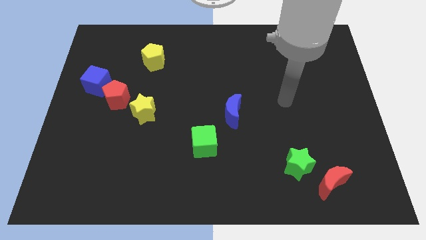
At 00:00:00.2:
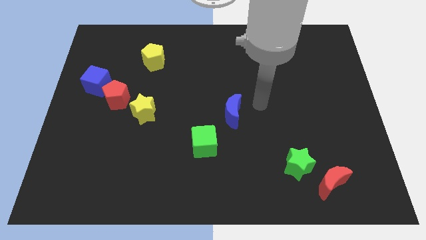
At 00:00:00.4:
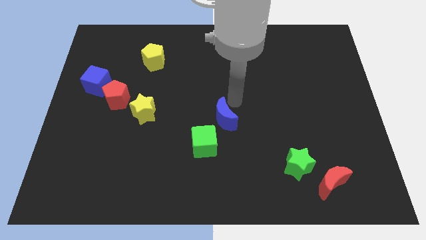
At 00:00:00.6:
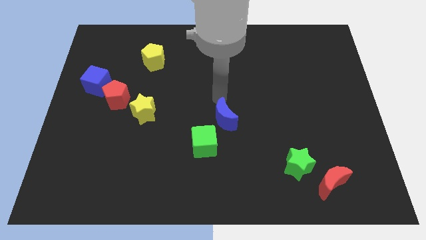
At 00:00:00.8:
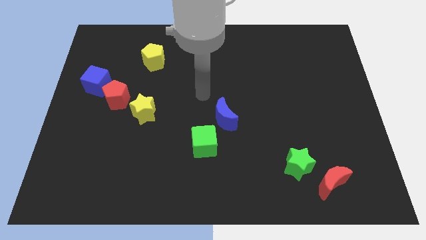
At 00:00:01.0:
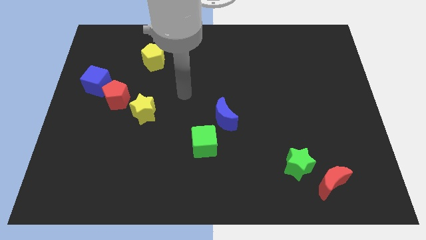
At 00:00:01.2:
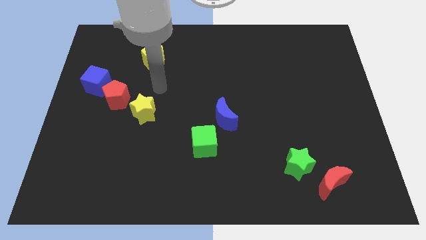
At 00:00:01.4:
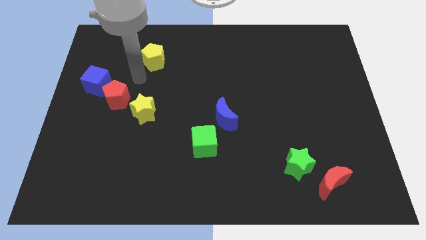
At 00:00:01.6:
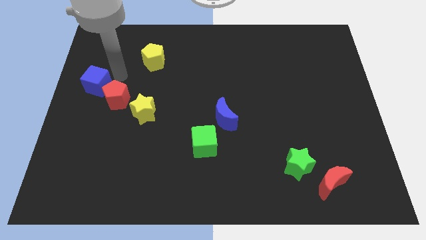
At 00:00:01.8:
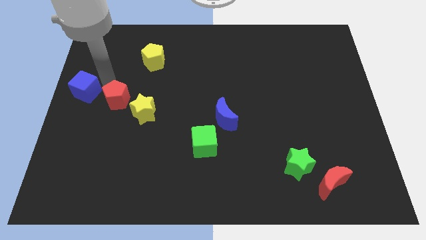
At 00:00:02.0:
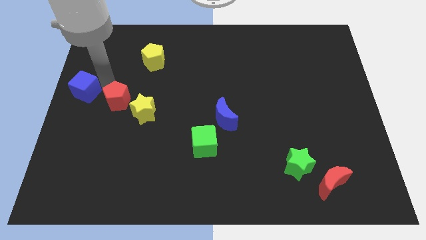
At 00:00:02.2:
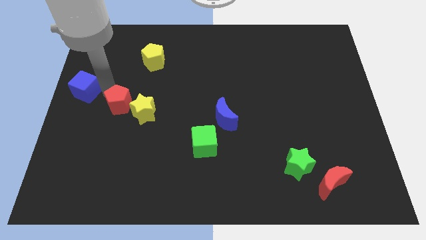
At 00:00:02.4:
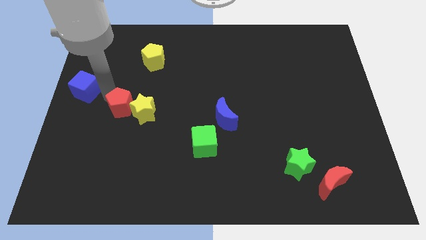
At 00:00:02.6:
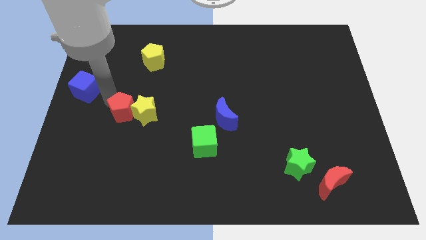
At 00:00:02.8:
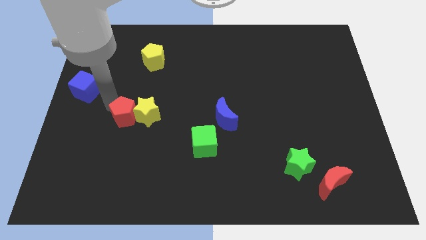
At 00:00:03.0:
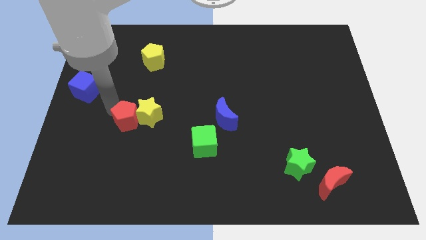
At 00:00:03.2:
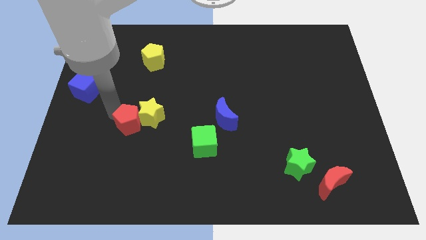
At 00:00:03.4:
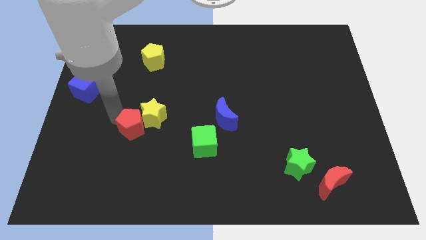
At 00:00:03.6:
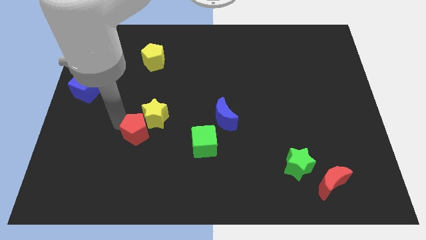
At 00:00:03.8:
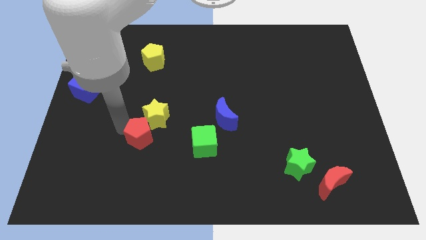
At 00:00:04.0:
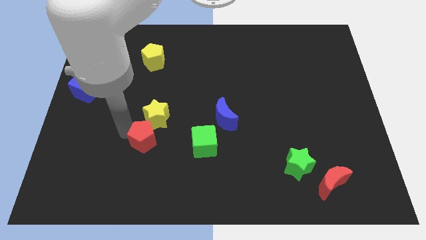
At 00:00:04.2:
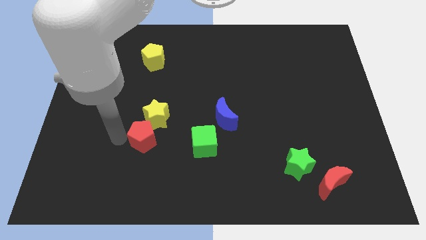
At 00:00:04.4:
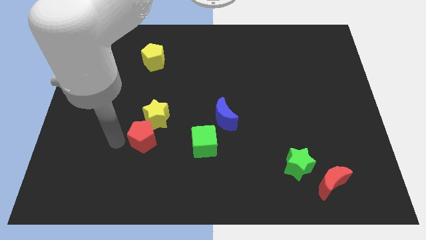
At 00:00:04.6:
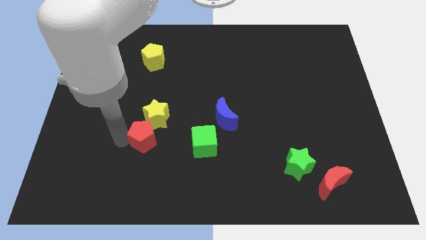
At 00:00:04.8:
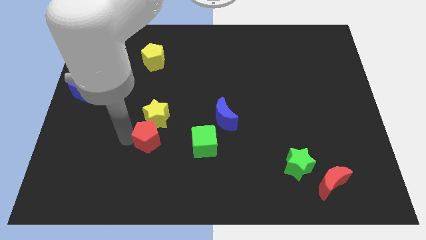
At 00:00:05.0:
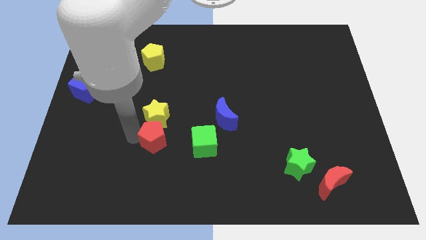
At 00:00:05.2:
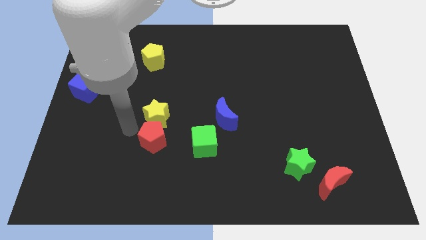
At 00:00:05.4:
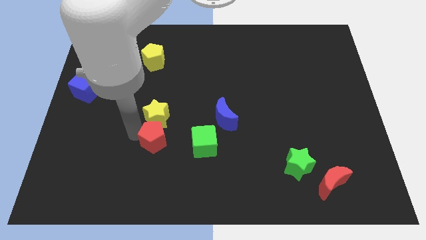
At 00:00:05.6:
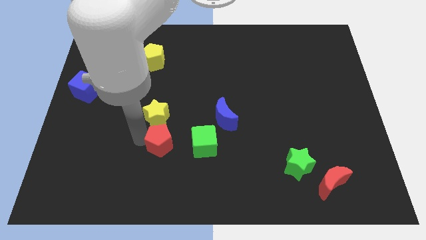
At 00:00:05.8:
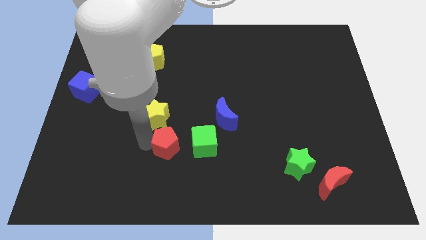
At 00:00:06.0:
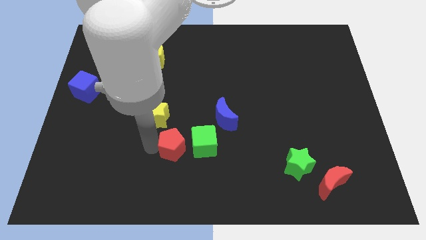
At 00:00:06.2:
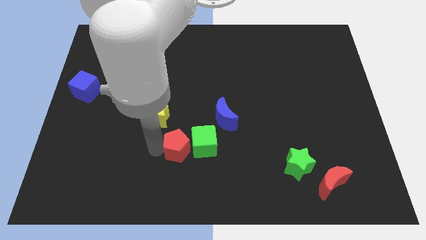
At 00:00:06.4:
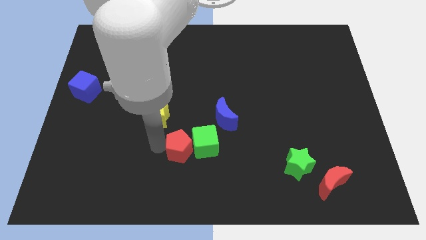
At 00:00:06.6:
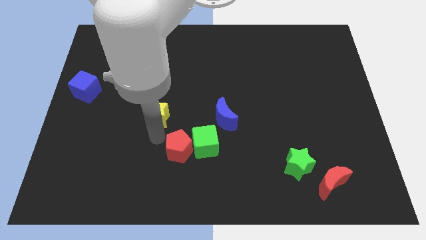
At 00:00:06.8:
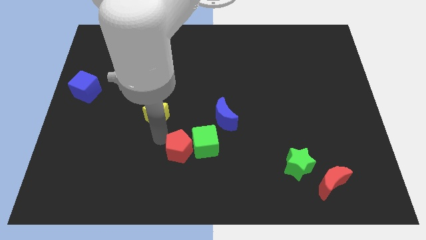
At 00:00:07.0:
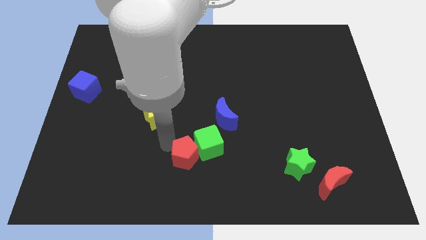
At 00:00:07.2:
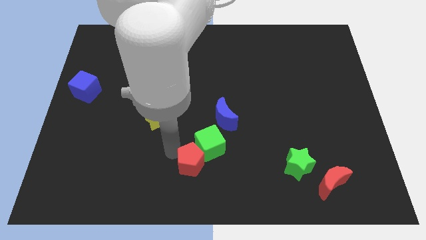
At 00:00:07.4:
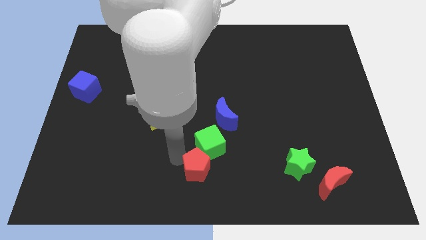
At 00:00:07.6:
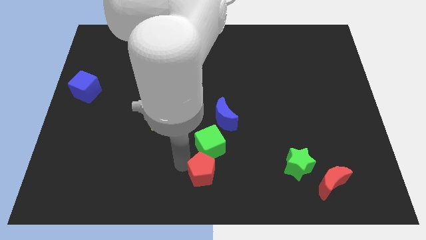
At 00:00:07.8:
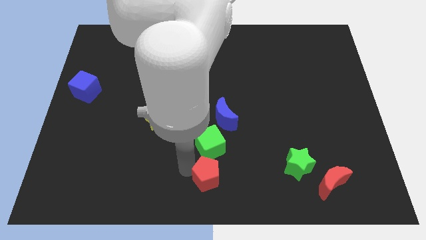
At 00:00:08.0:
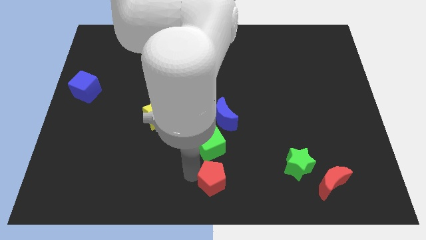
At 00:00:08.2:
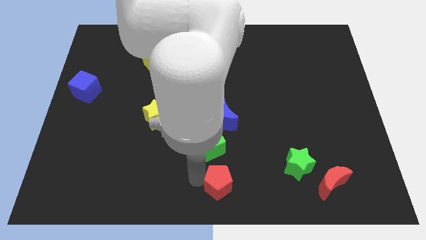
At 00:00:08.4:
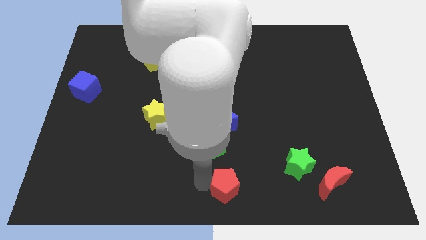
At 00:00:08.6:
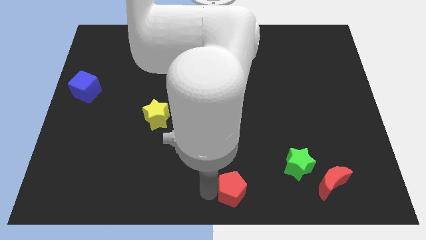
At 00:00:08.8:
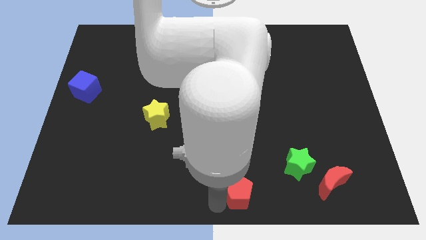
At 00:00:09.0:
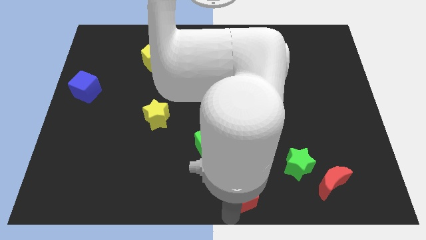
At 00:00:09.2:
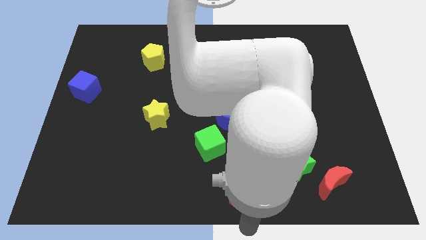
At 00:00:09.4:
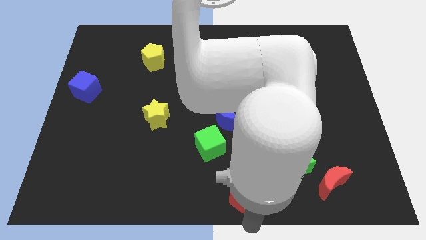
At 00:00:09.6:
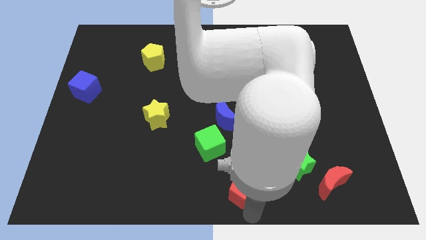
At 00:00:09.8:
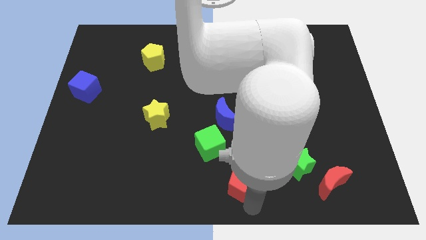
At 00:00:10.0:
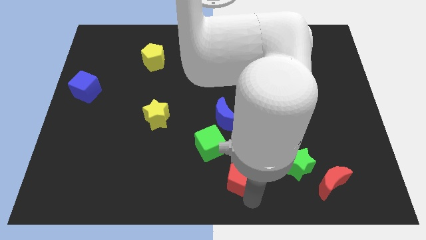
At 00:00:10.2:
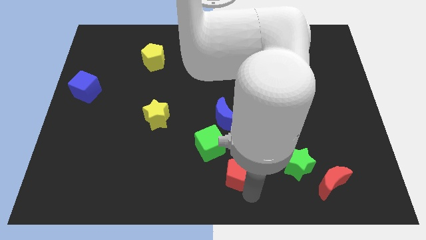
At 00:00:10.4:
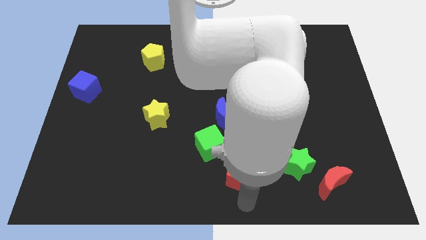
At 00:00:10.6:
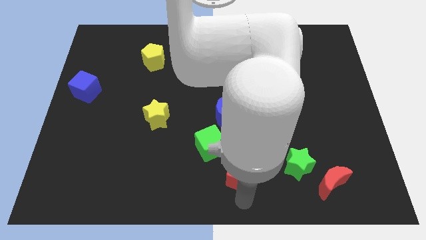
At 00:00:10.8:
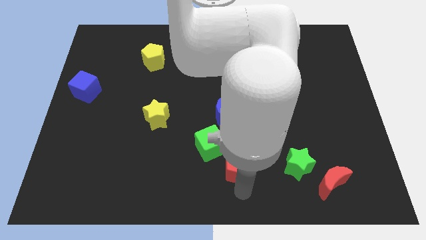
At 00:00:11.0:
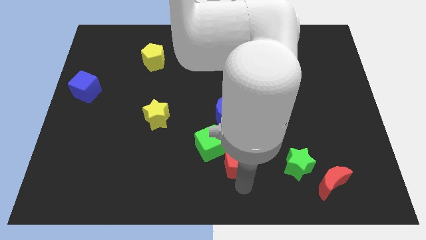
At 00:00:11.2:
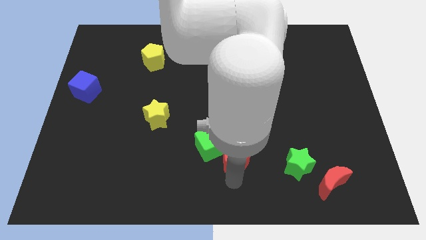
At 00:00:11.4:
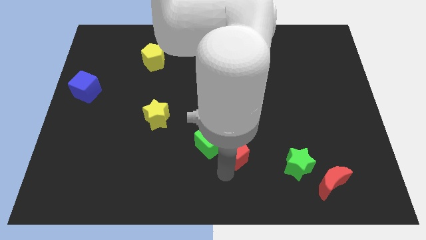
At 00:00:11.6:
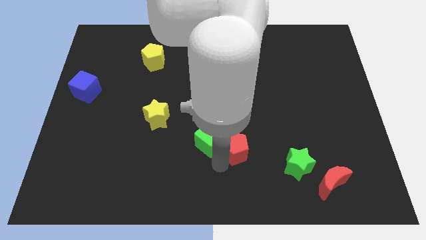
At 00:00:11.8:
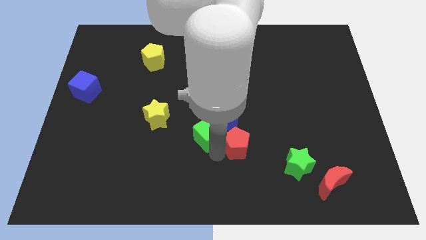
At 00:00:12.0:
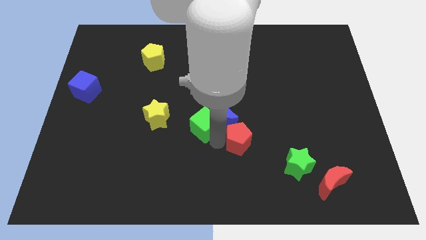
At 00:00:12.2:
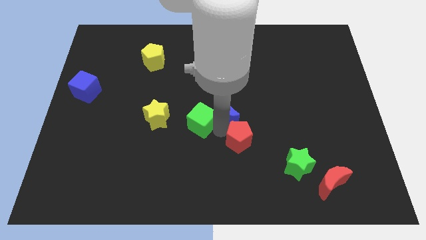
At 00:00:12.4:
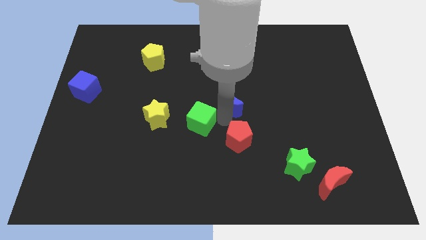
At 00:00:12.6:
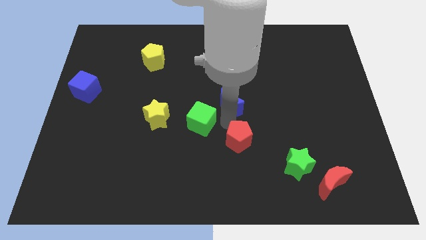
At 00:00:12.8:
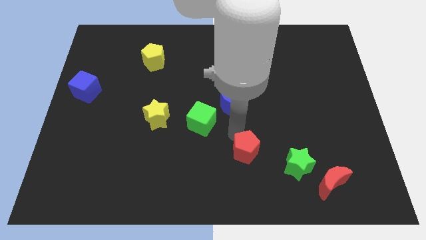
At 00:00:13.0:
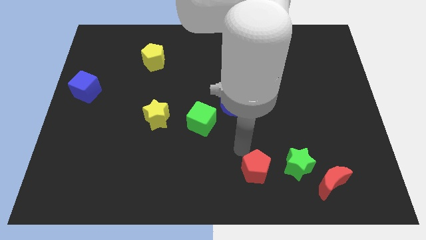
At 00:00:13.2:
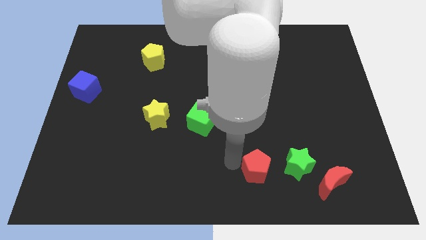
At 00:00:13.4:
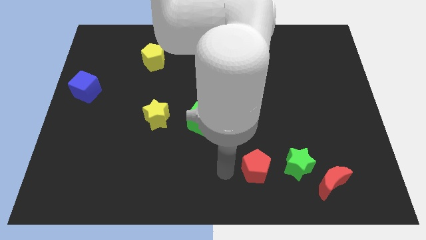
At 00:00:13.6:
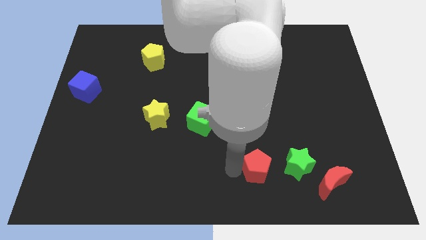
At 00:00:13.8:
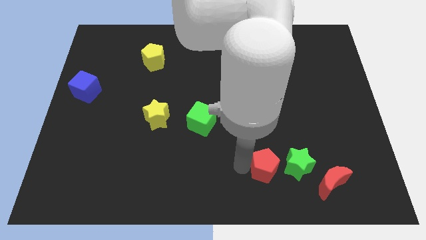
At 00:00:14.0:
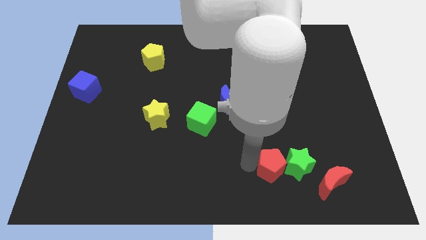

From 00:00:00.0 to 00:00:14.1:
move the red pentagon to the green star
